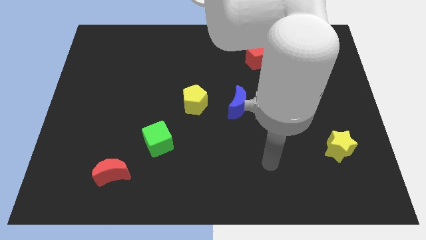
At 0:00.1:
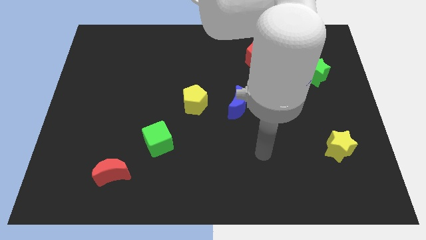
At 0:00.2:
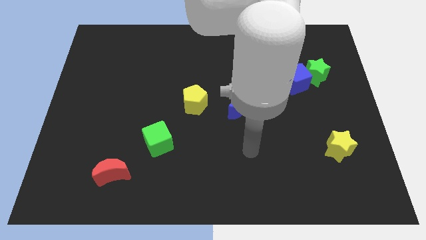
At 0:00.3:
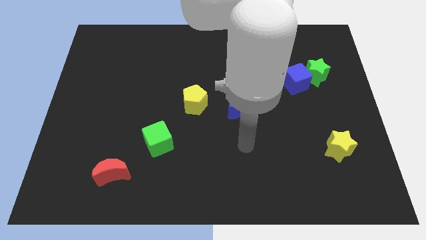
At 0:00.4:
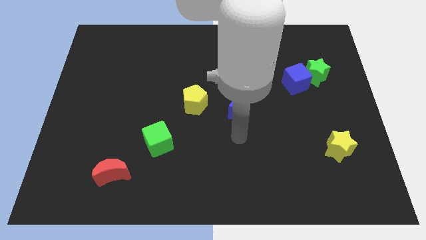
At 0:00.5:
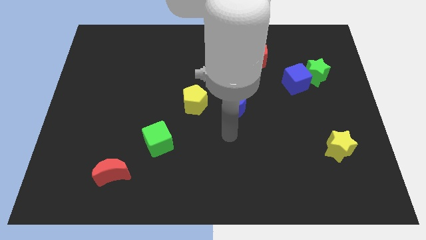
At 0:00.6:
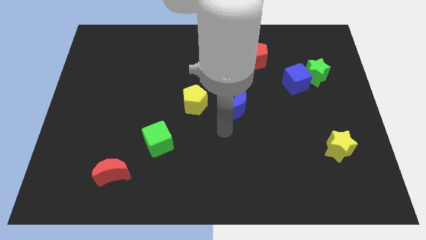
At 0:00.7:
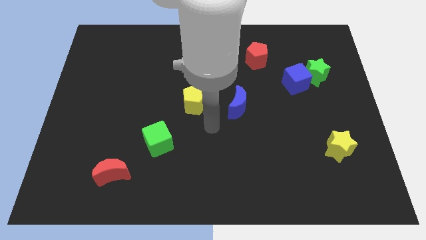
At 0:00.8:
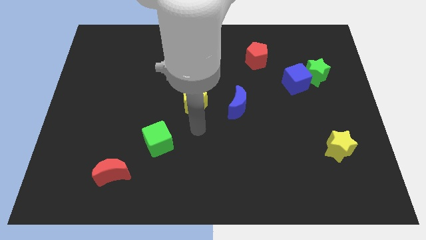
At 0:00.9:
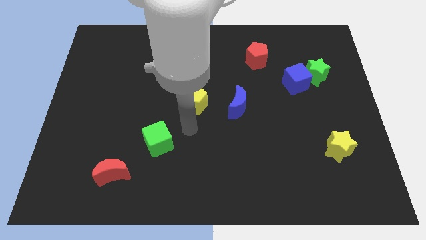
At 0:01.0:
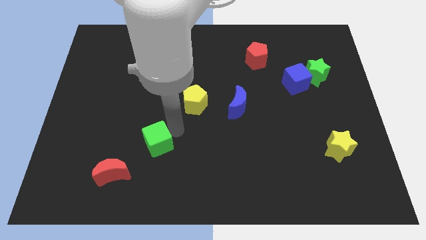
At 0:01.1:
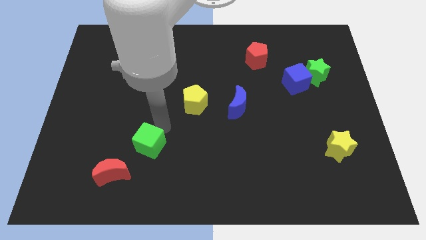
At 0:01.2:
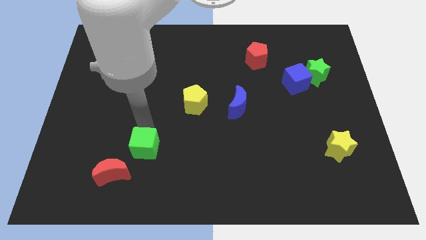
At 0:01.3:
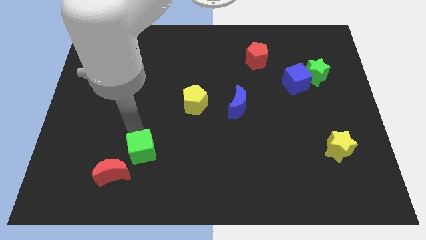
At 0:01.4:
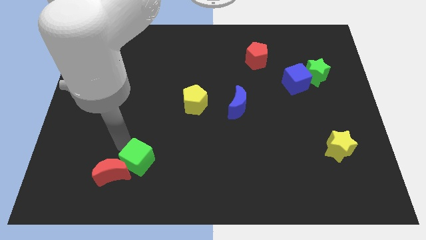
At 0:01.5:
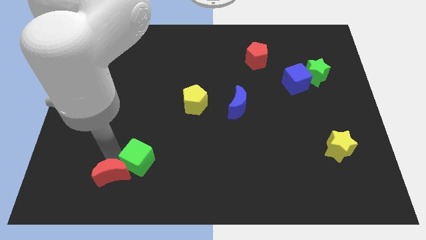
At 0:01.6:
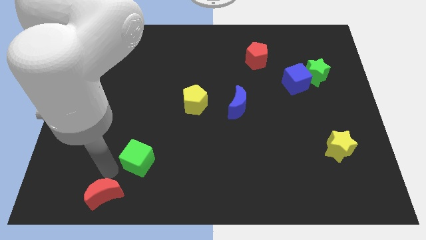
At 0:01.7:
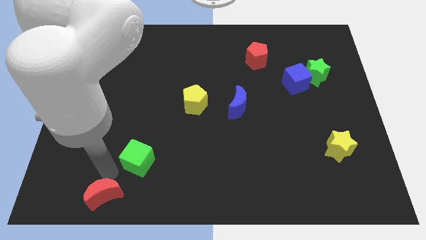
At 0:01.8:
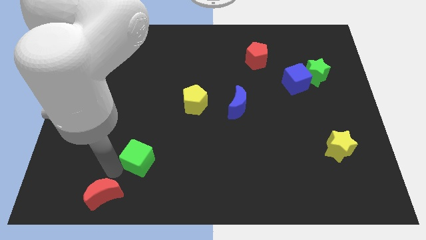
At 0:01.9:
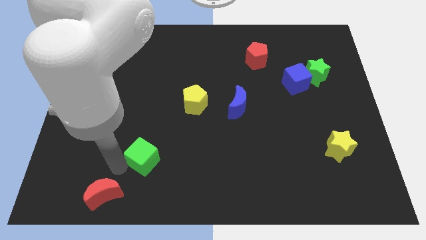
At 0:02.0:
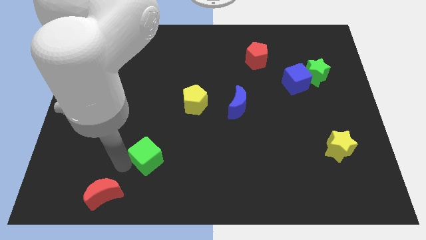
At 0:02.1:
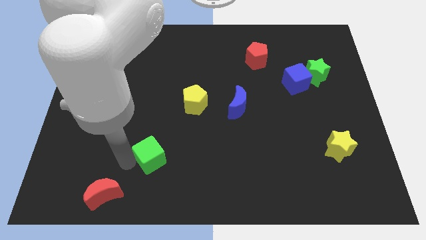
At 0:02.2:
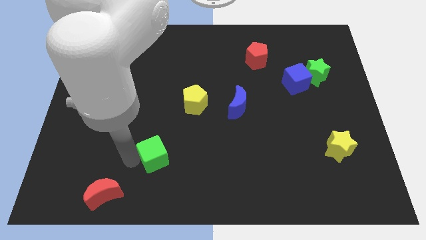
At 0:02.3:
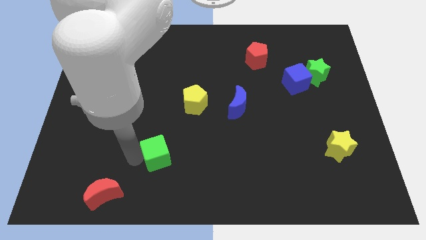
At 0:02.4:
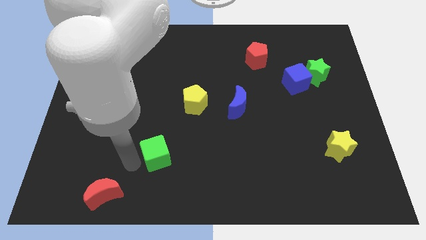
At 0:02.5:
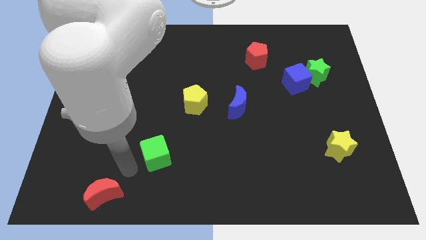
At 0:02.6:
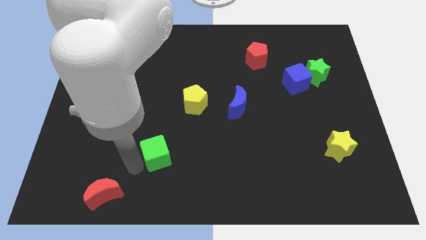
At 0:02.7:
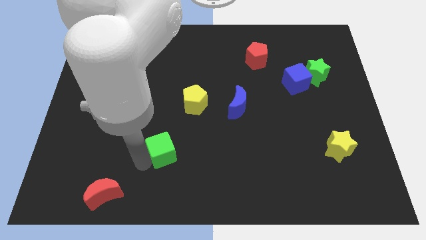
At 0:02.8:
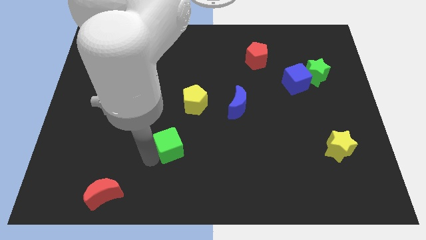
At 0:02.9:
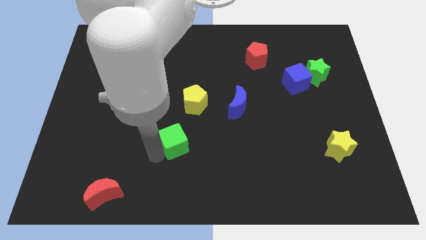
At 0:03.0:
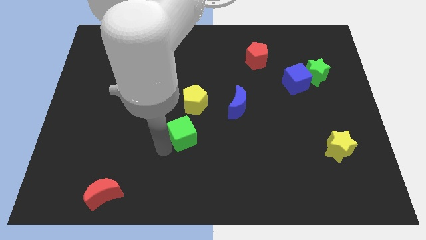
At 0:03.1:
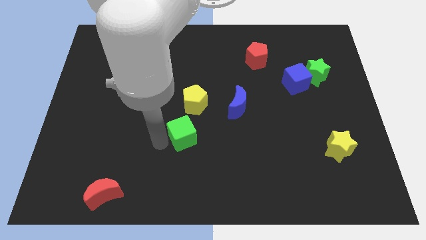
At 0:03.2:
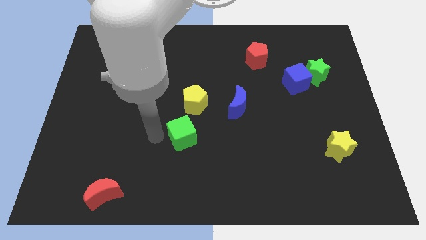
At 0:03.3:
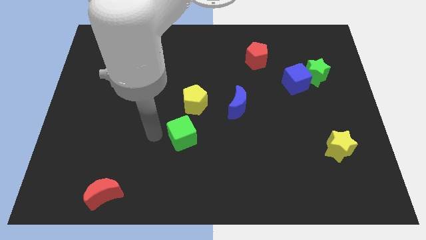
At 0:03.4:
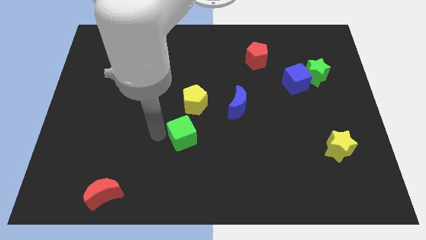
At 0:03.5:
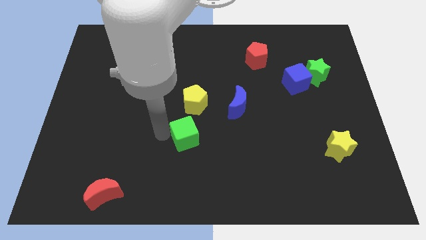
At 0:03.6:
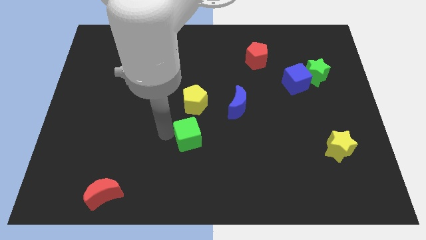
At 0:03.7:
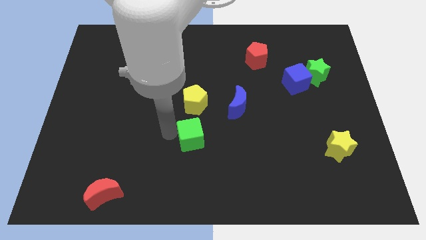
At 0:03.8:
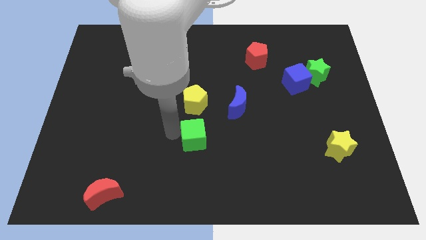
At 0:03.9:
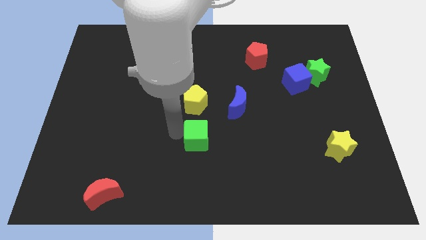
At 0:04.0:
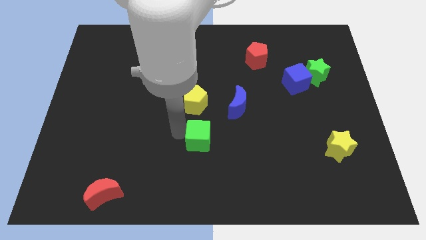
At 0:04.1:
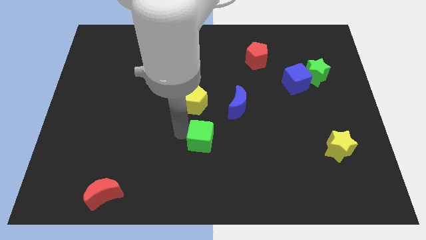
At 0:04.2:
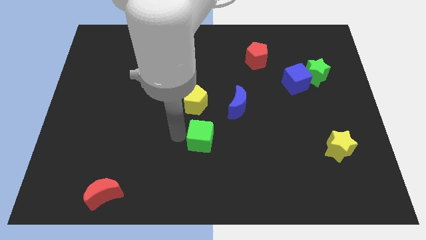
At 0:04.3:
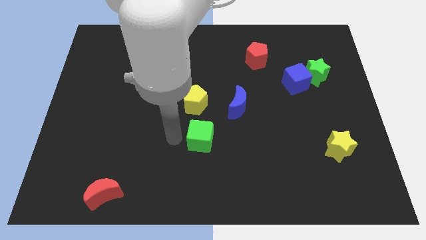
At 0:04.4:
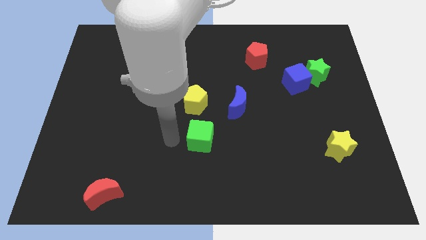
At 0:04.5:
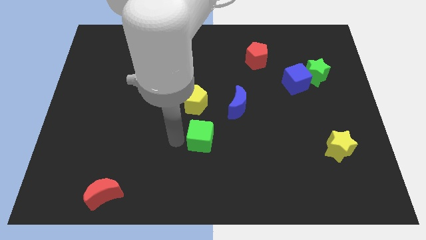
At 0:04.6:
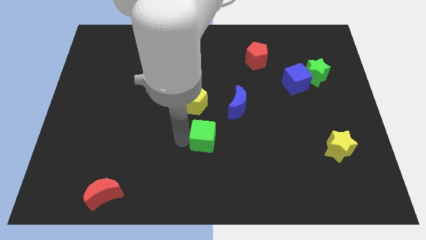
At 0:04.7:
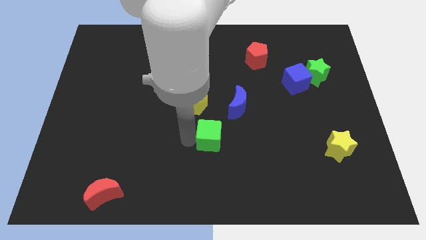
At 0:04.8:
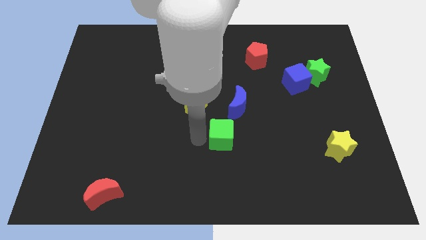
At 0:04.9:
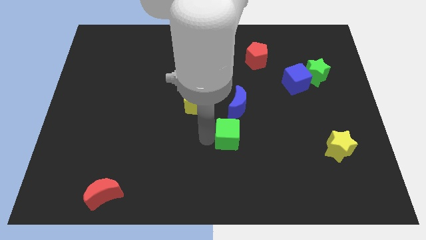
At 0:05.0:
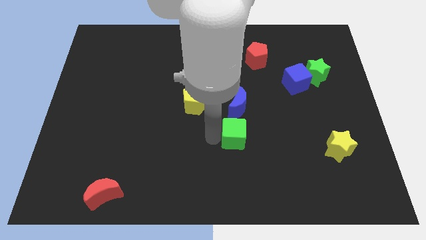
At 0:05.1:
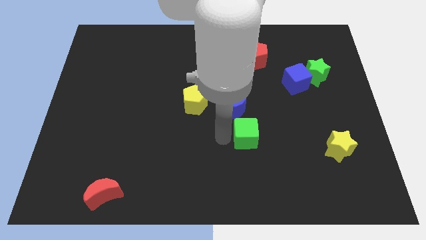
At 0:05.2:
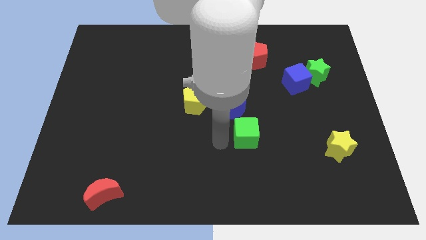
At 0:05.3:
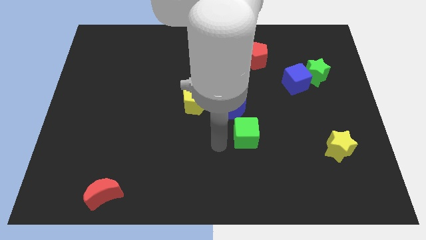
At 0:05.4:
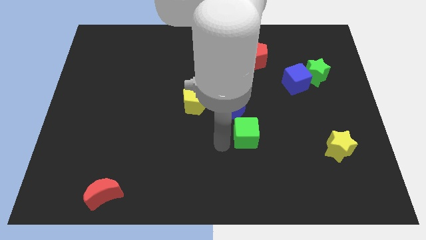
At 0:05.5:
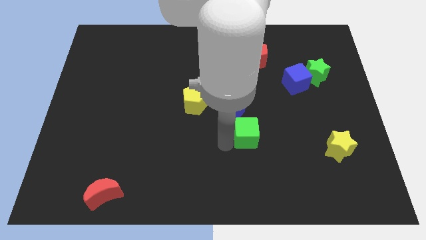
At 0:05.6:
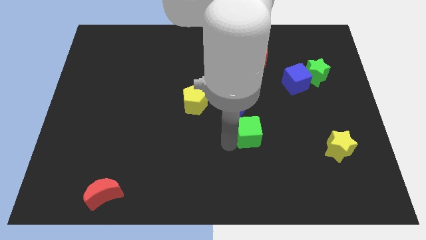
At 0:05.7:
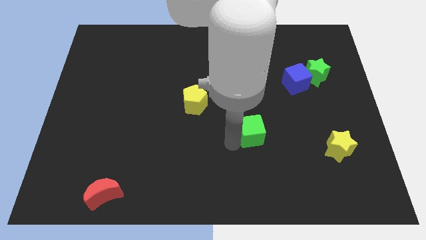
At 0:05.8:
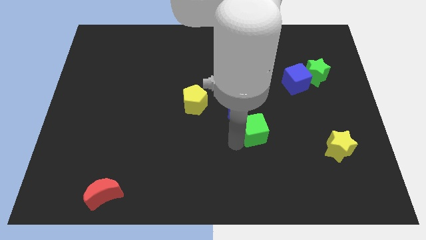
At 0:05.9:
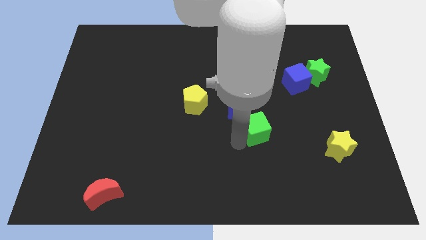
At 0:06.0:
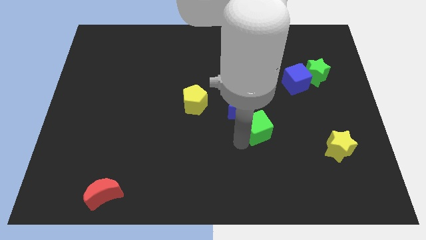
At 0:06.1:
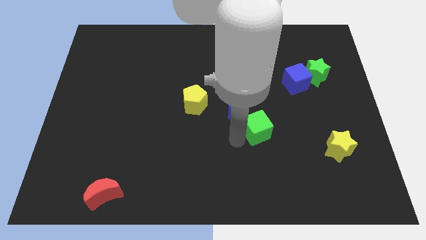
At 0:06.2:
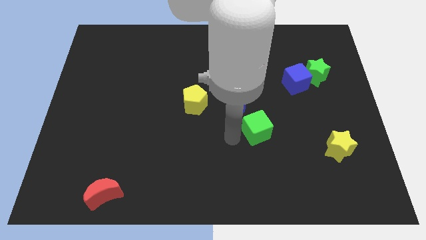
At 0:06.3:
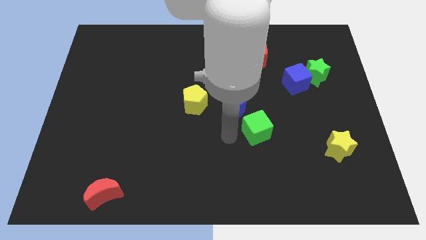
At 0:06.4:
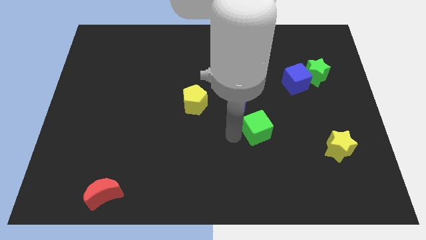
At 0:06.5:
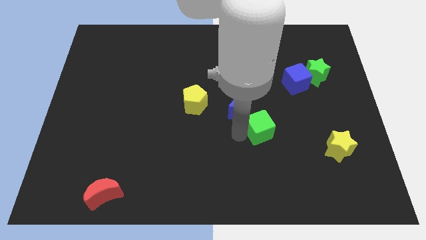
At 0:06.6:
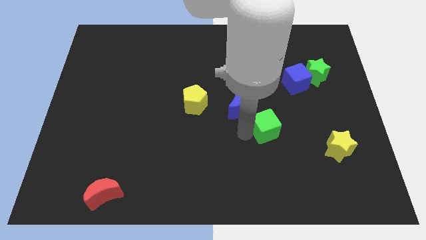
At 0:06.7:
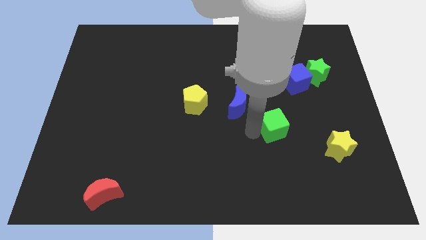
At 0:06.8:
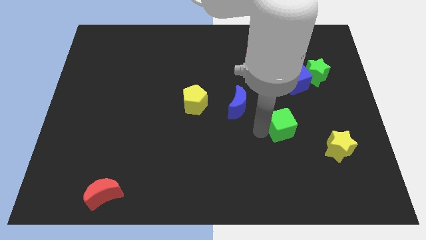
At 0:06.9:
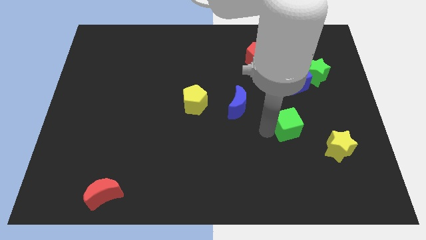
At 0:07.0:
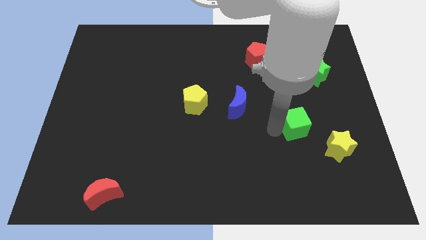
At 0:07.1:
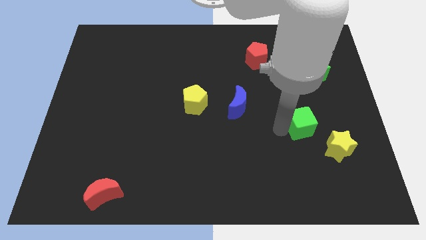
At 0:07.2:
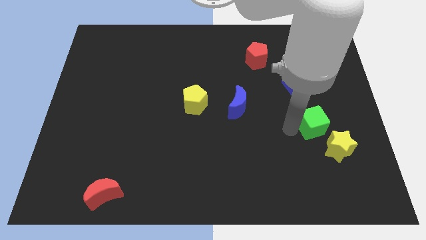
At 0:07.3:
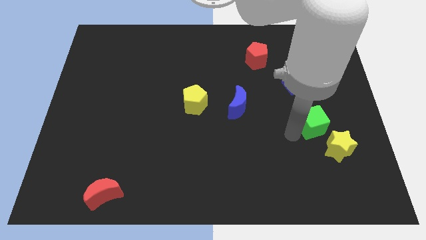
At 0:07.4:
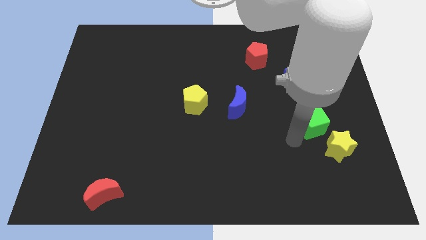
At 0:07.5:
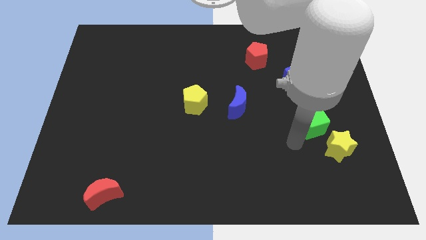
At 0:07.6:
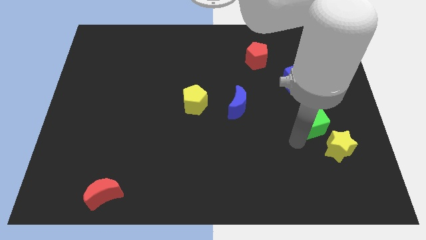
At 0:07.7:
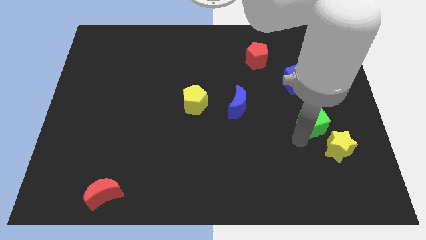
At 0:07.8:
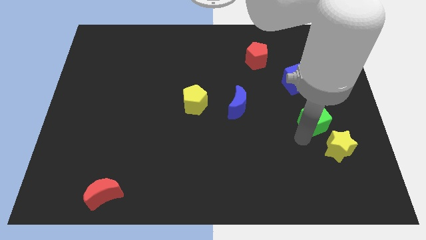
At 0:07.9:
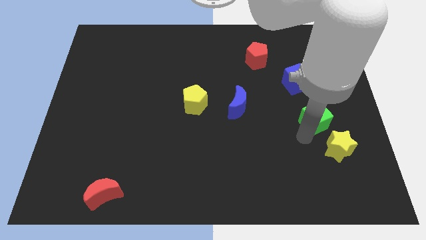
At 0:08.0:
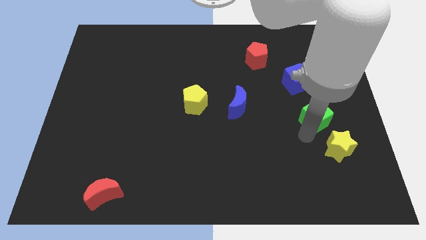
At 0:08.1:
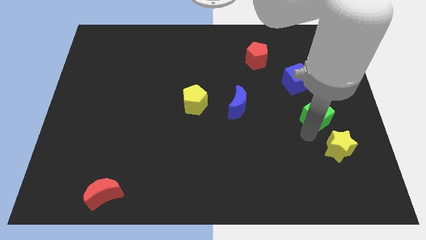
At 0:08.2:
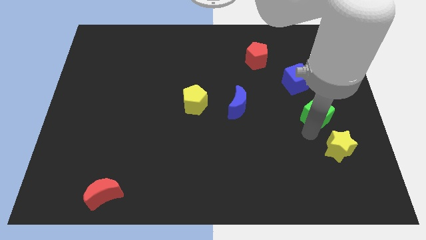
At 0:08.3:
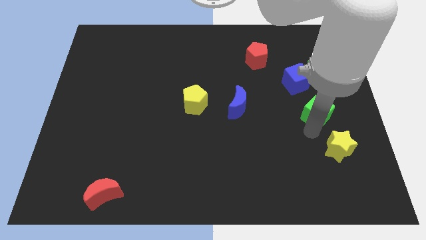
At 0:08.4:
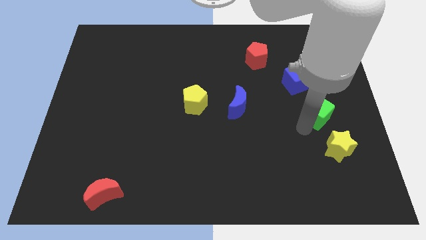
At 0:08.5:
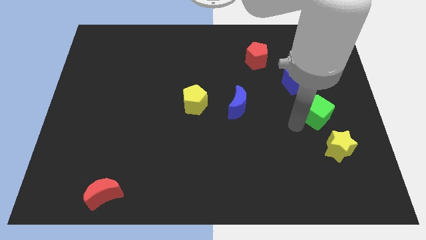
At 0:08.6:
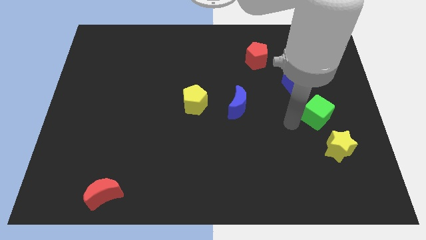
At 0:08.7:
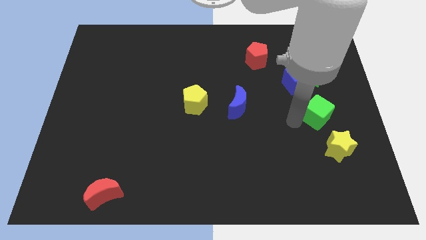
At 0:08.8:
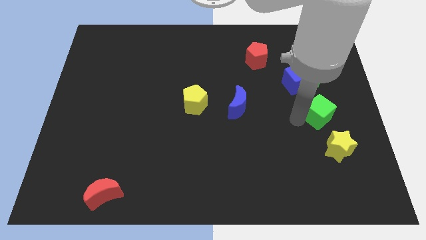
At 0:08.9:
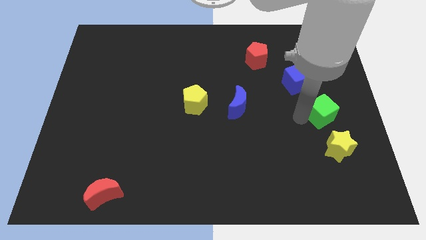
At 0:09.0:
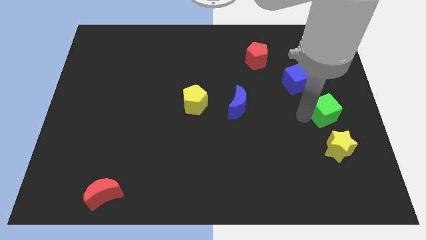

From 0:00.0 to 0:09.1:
move the green cube to the right side of the board
